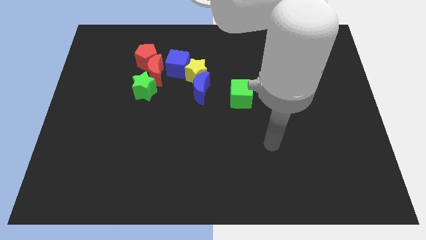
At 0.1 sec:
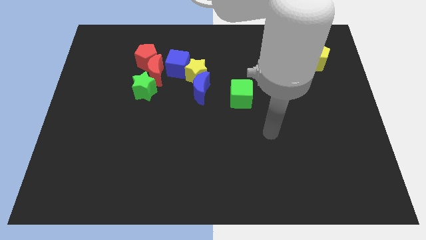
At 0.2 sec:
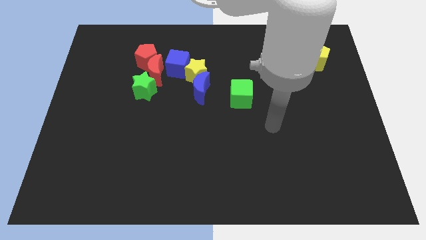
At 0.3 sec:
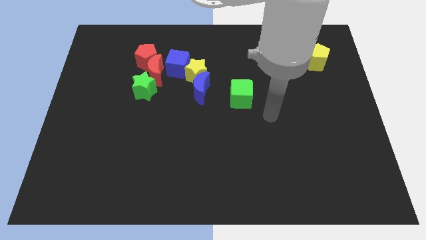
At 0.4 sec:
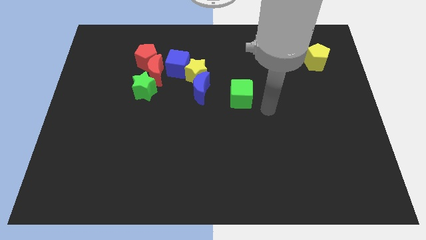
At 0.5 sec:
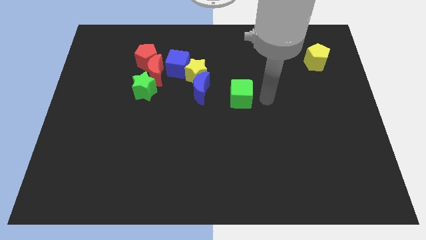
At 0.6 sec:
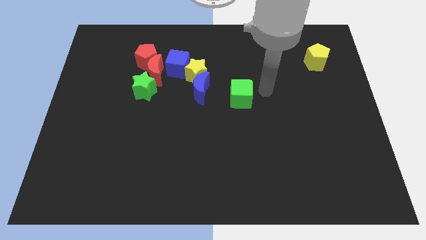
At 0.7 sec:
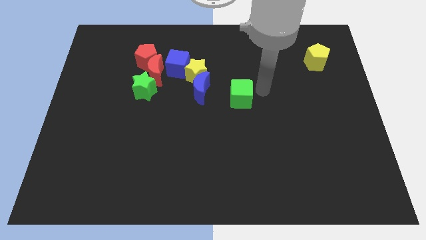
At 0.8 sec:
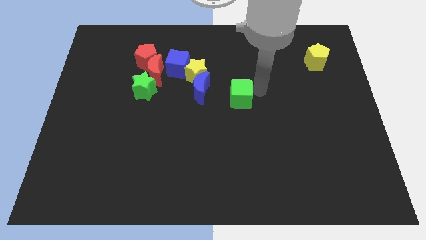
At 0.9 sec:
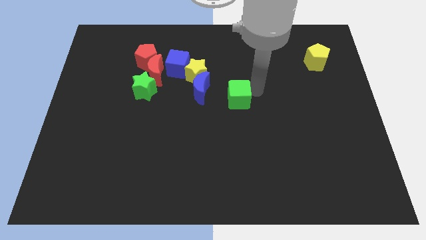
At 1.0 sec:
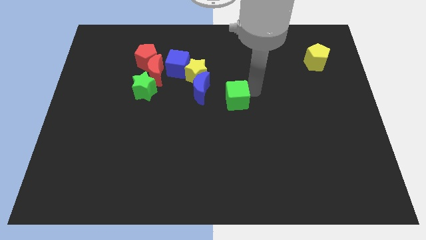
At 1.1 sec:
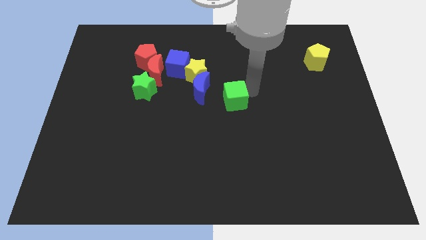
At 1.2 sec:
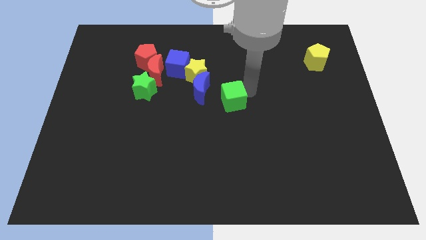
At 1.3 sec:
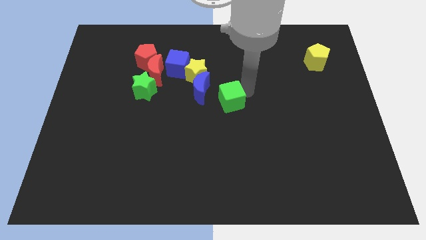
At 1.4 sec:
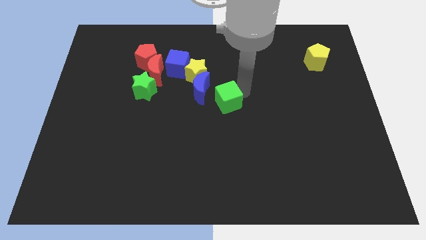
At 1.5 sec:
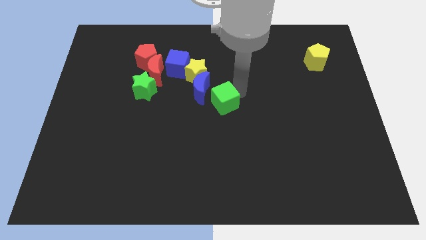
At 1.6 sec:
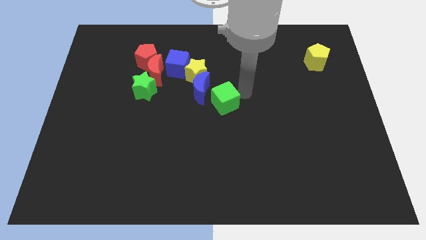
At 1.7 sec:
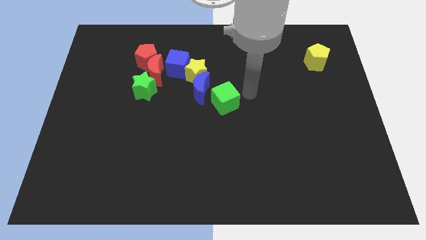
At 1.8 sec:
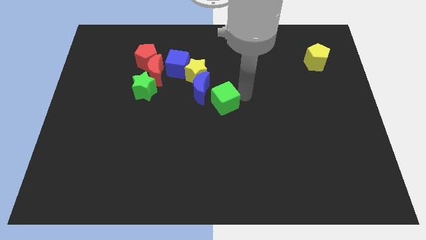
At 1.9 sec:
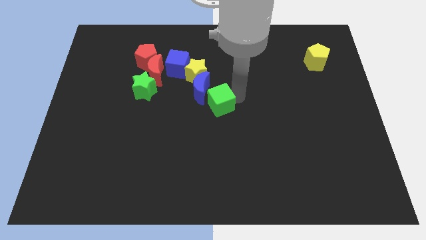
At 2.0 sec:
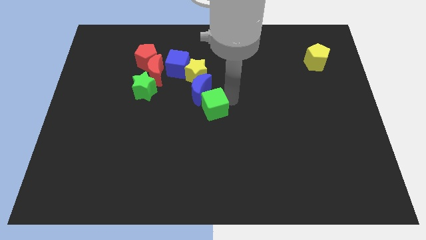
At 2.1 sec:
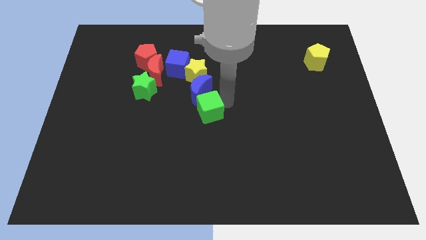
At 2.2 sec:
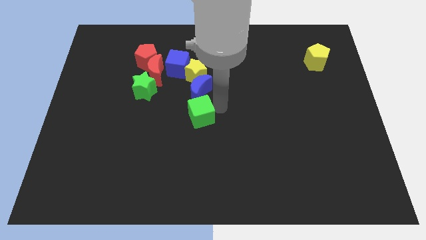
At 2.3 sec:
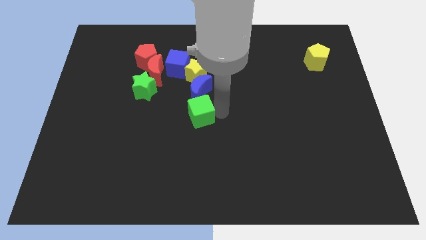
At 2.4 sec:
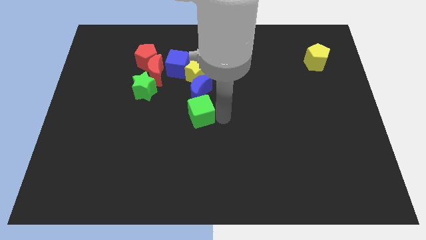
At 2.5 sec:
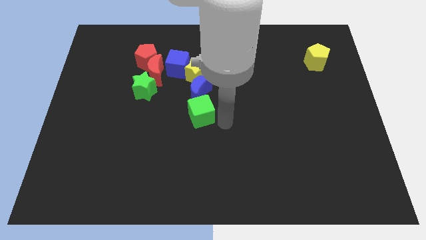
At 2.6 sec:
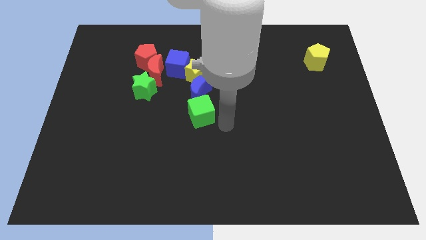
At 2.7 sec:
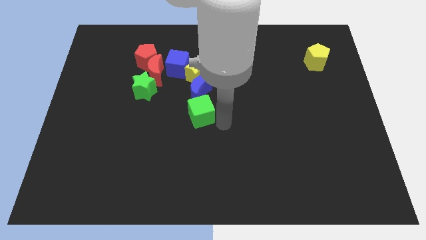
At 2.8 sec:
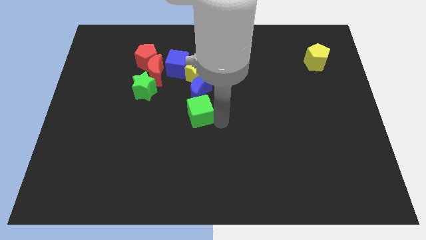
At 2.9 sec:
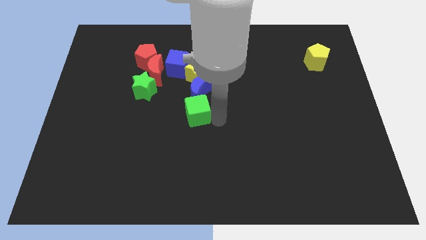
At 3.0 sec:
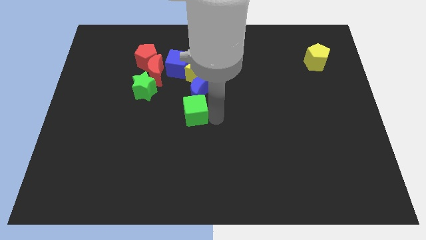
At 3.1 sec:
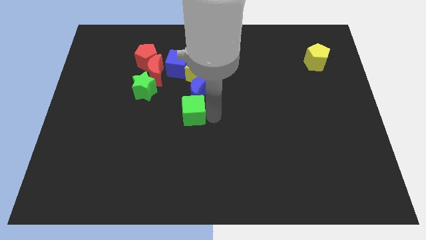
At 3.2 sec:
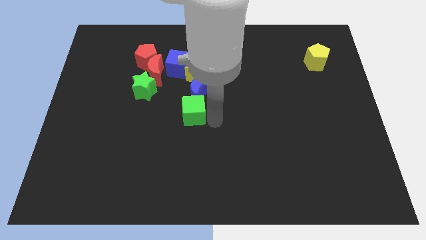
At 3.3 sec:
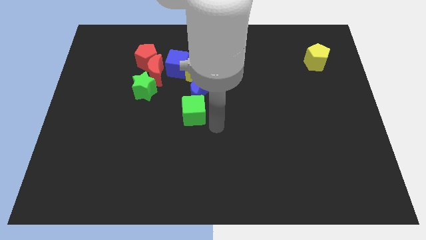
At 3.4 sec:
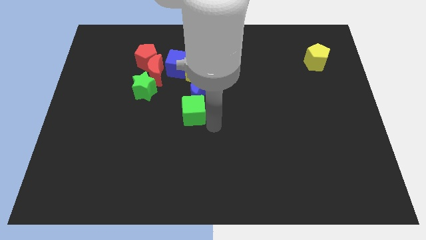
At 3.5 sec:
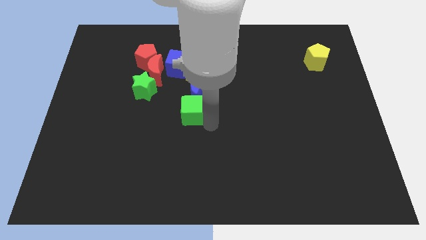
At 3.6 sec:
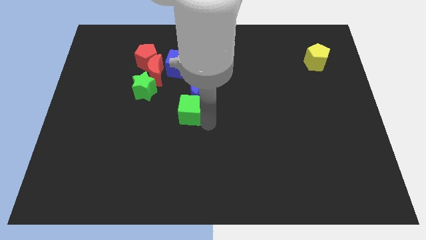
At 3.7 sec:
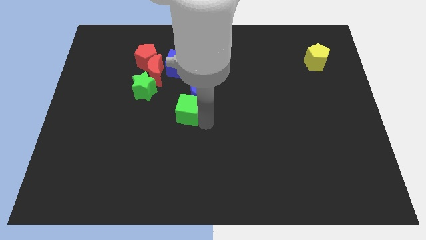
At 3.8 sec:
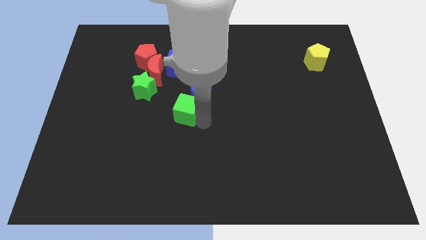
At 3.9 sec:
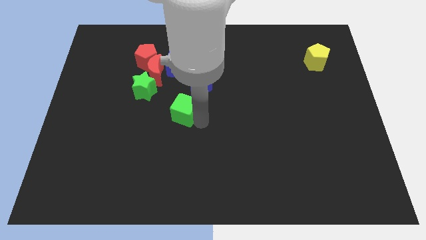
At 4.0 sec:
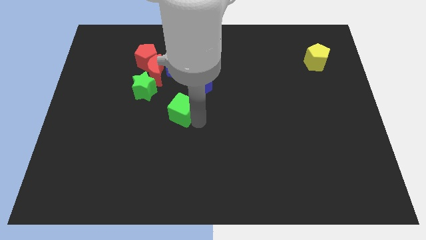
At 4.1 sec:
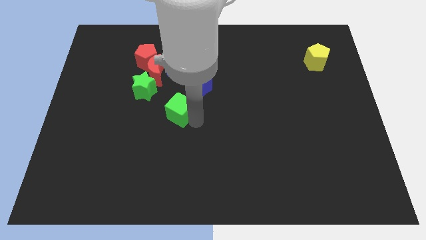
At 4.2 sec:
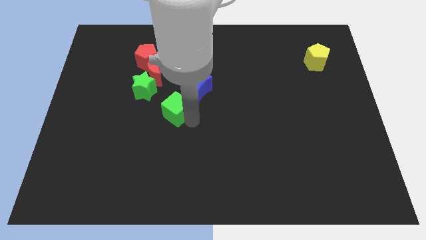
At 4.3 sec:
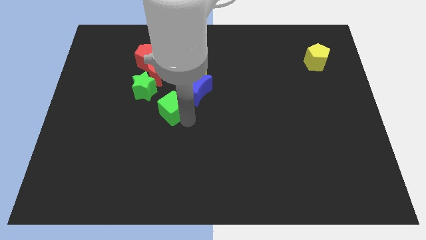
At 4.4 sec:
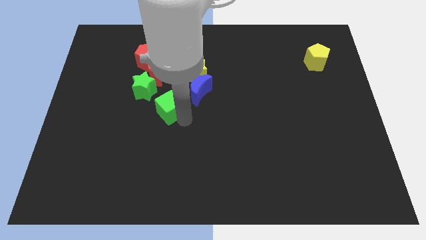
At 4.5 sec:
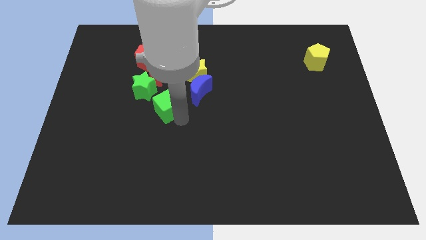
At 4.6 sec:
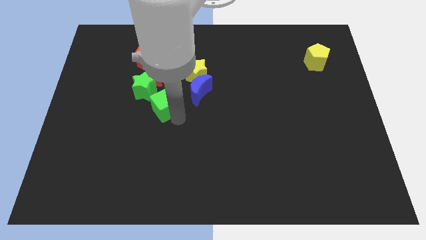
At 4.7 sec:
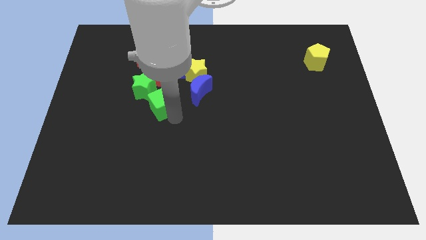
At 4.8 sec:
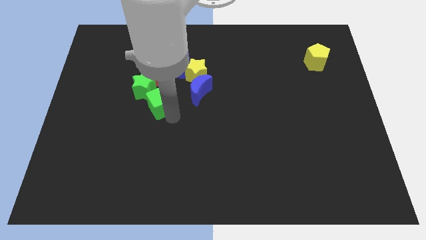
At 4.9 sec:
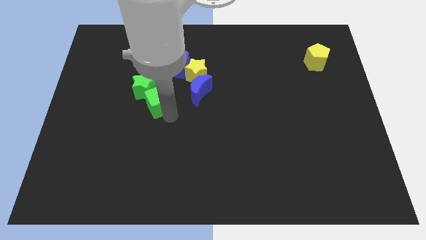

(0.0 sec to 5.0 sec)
push the green cube close to the green star

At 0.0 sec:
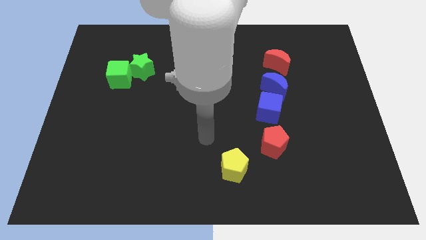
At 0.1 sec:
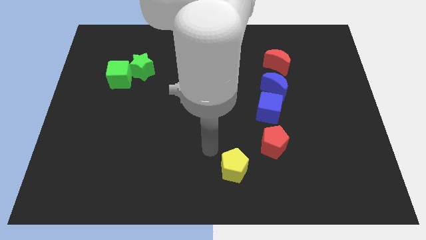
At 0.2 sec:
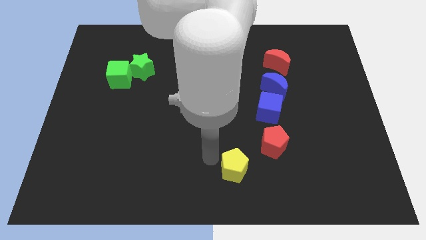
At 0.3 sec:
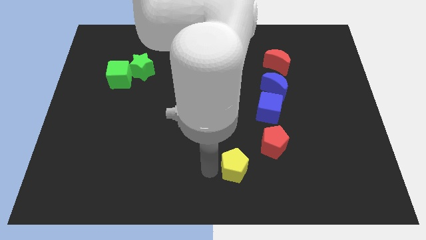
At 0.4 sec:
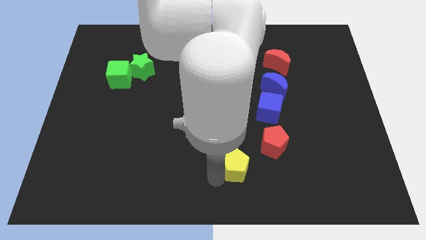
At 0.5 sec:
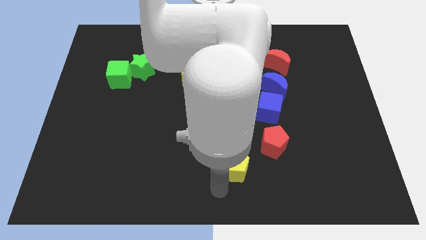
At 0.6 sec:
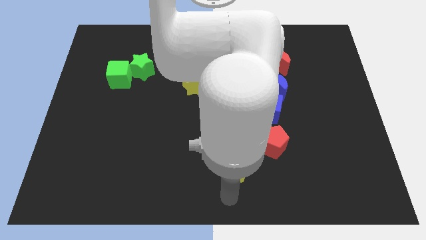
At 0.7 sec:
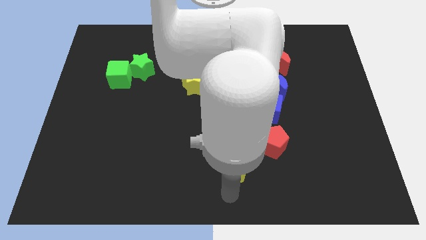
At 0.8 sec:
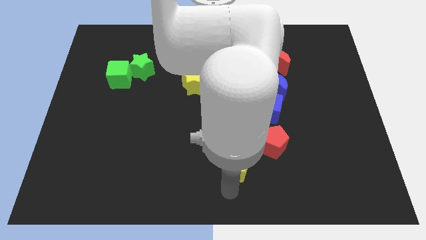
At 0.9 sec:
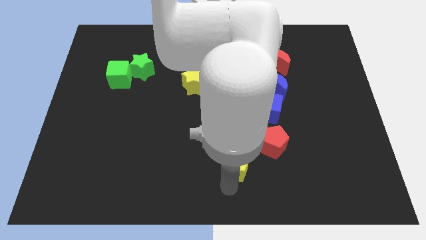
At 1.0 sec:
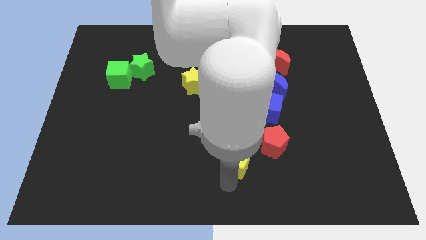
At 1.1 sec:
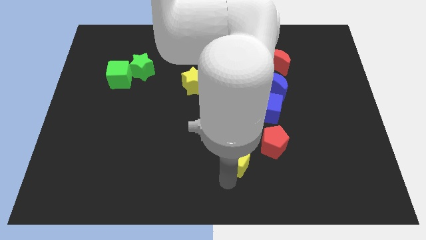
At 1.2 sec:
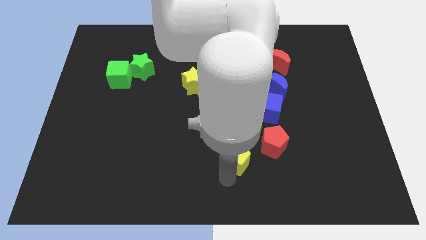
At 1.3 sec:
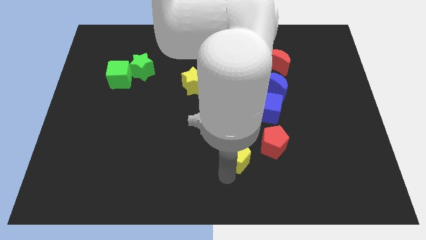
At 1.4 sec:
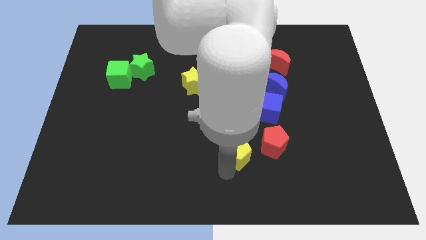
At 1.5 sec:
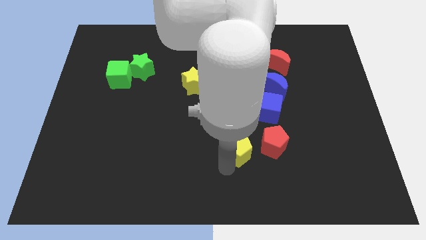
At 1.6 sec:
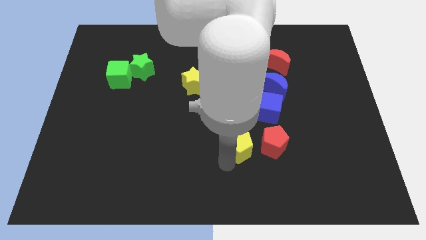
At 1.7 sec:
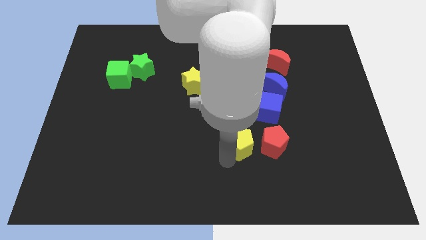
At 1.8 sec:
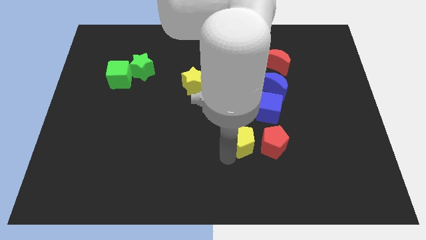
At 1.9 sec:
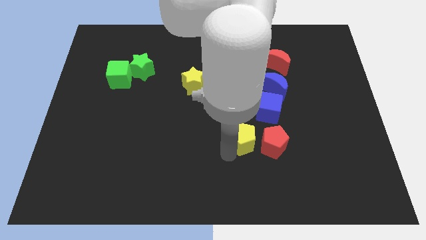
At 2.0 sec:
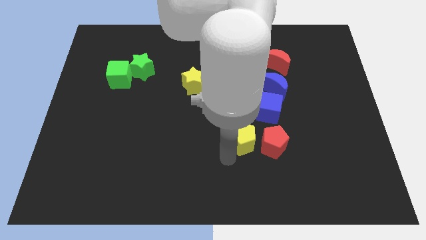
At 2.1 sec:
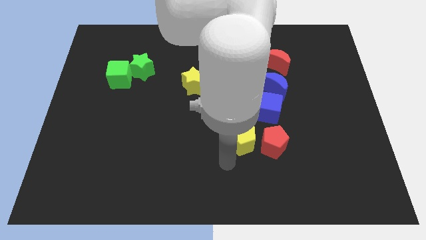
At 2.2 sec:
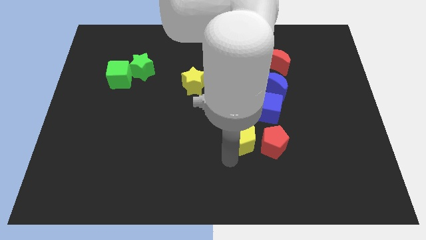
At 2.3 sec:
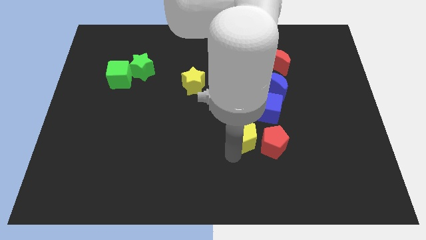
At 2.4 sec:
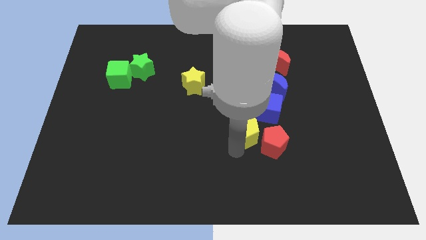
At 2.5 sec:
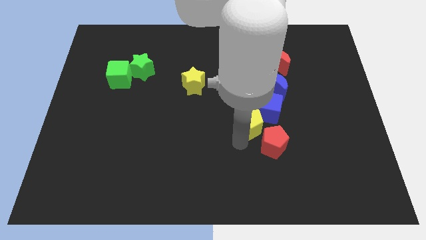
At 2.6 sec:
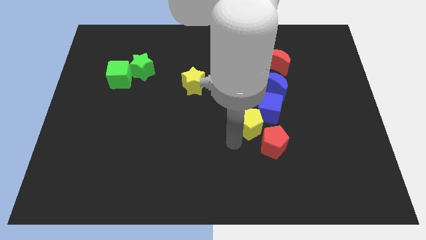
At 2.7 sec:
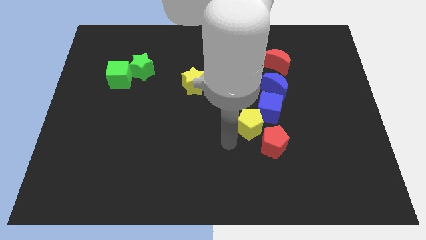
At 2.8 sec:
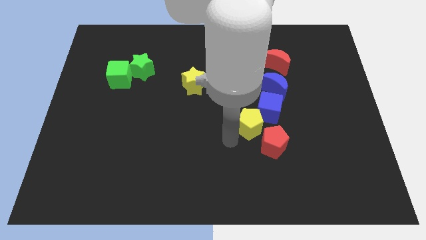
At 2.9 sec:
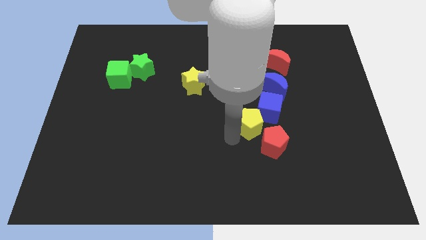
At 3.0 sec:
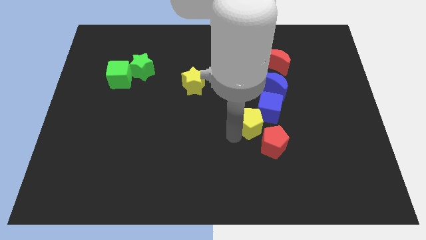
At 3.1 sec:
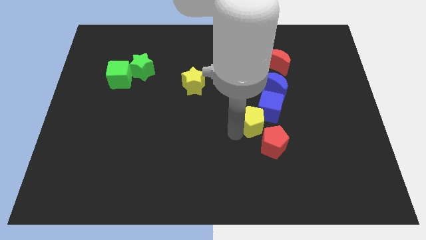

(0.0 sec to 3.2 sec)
move the yellow pentagon next to the blue cube
